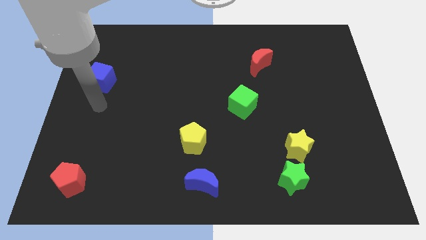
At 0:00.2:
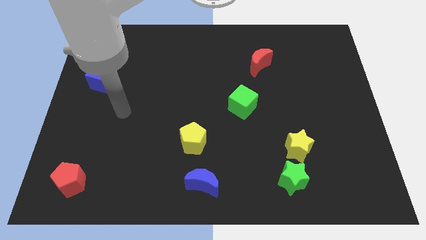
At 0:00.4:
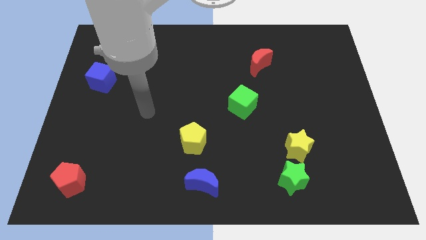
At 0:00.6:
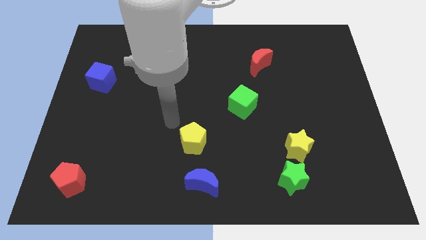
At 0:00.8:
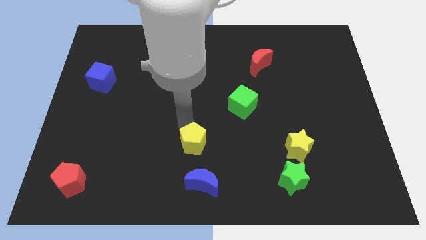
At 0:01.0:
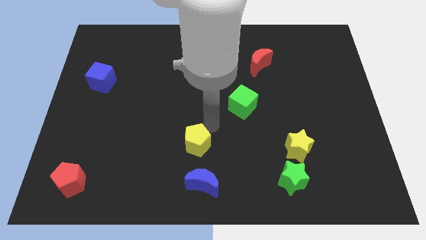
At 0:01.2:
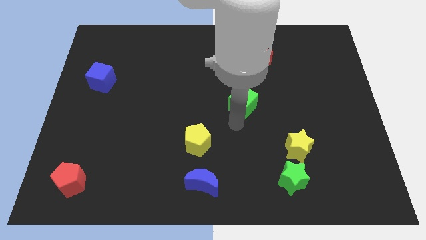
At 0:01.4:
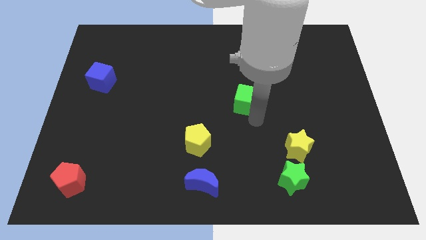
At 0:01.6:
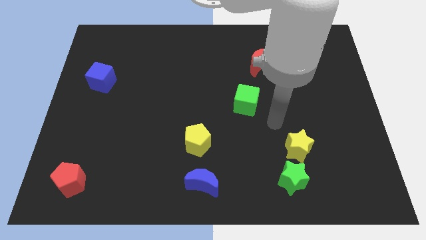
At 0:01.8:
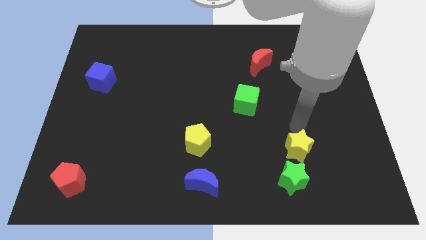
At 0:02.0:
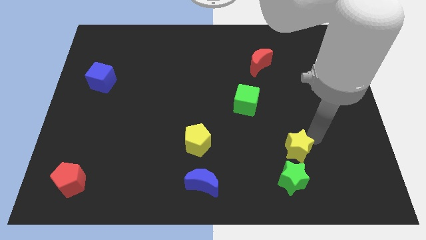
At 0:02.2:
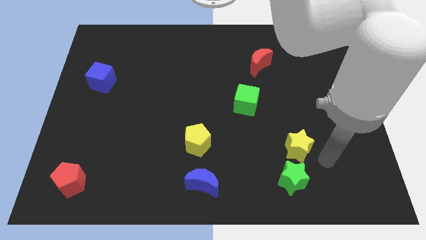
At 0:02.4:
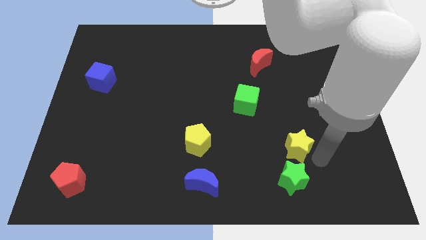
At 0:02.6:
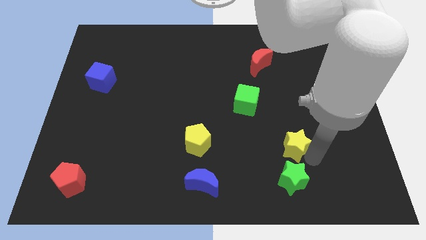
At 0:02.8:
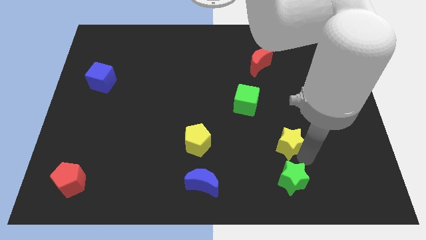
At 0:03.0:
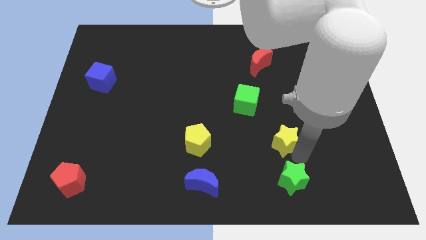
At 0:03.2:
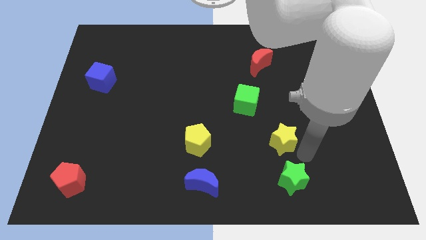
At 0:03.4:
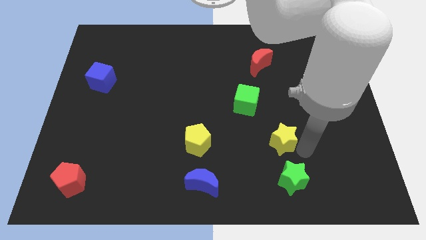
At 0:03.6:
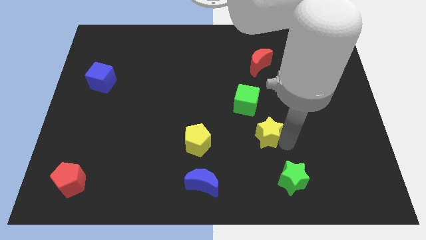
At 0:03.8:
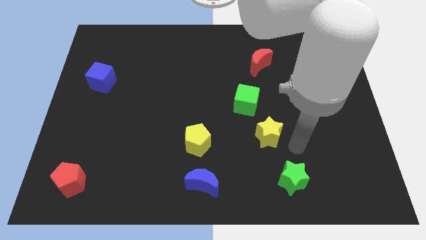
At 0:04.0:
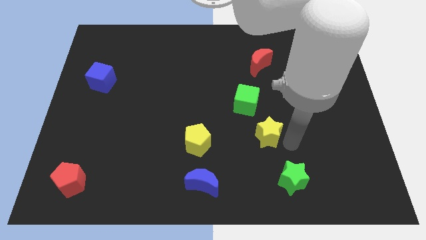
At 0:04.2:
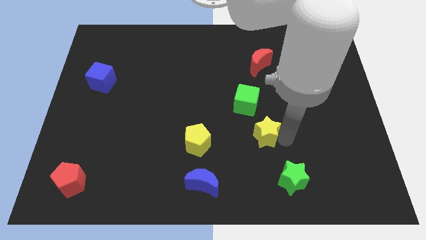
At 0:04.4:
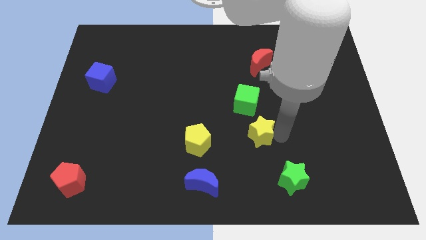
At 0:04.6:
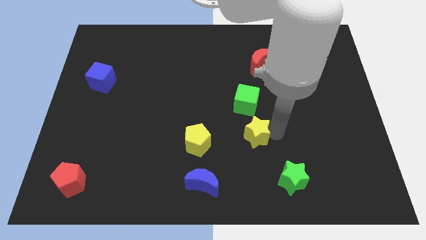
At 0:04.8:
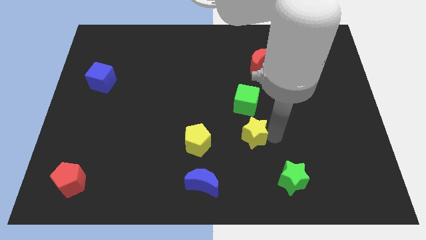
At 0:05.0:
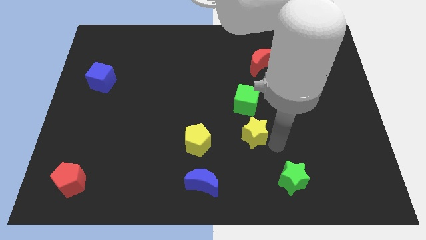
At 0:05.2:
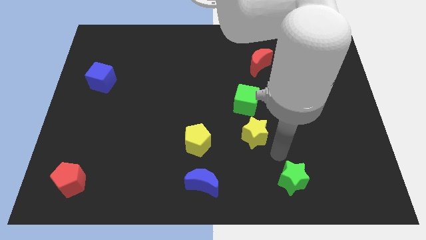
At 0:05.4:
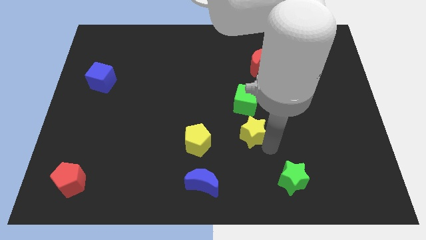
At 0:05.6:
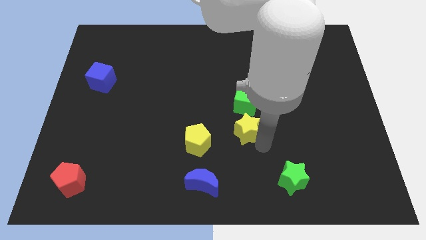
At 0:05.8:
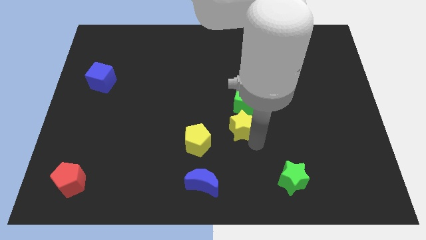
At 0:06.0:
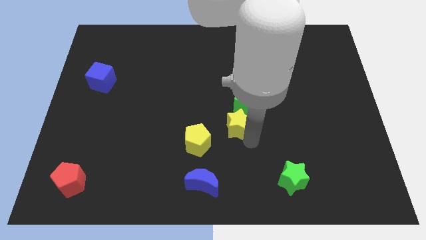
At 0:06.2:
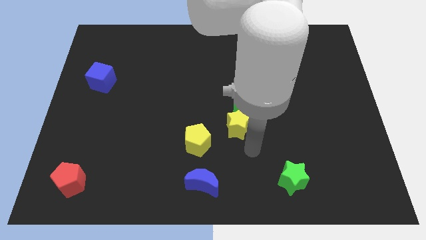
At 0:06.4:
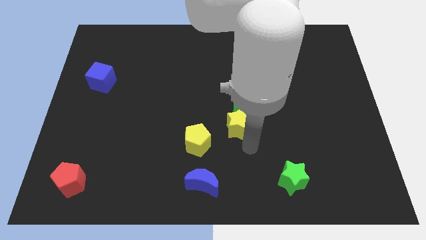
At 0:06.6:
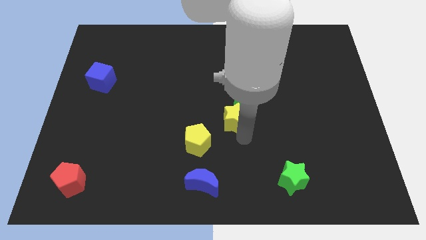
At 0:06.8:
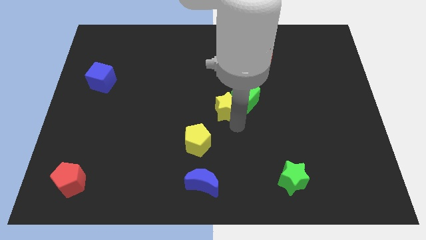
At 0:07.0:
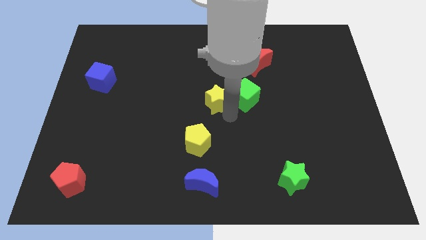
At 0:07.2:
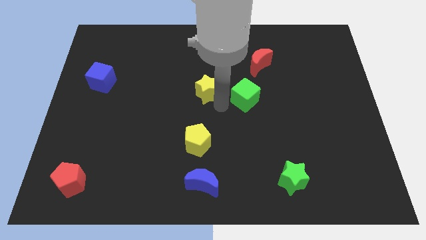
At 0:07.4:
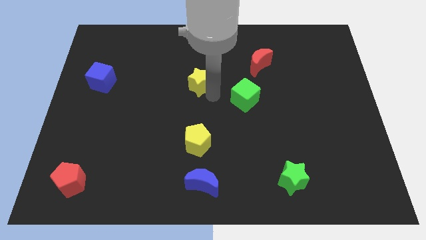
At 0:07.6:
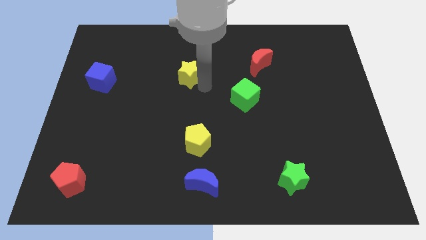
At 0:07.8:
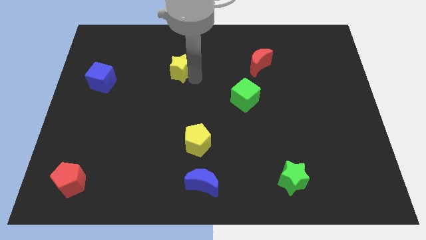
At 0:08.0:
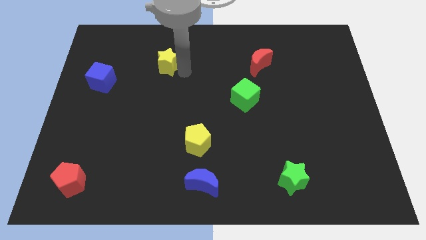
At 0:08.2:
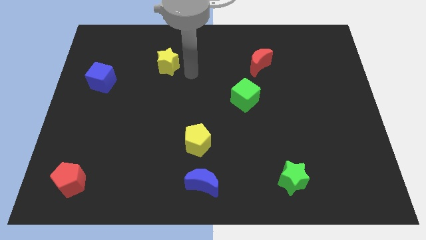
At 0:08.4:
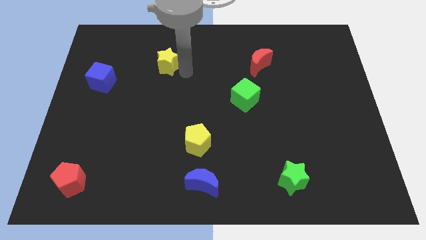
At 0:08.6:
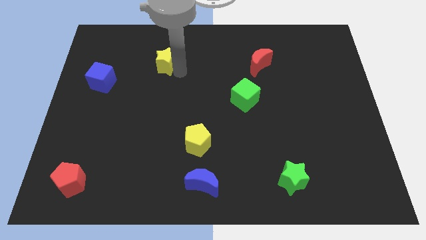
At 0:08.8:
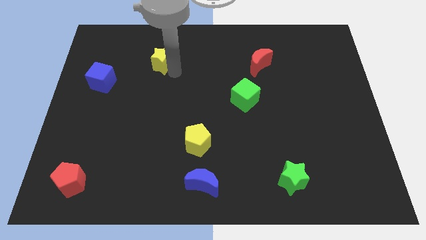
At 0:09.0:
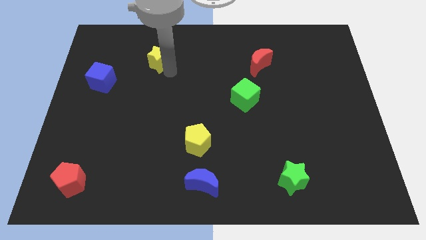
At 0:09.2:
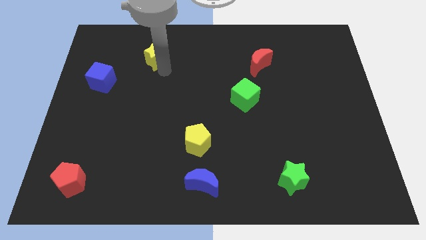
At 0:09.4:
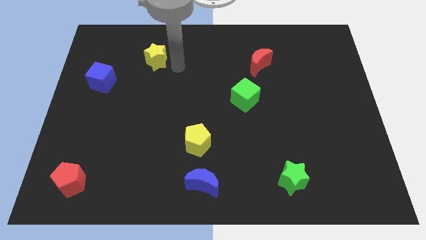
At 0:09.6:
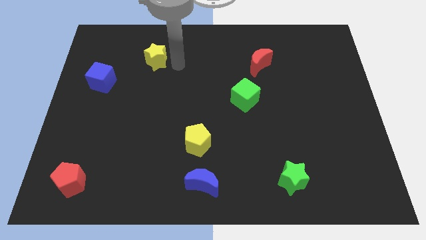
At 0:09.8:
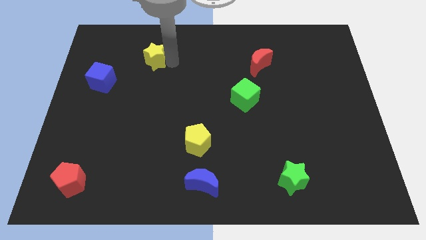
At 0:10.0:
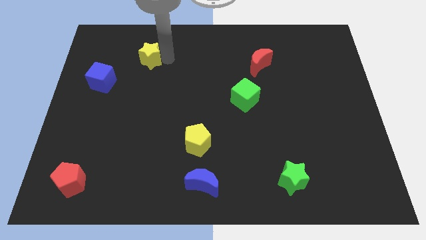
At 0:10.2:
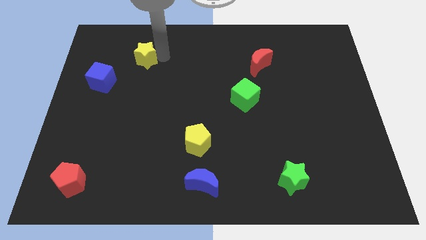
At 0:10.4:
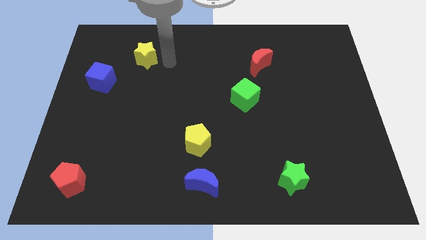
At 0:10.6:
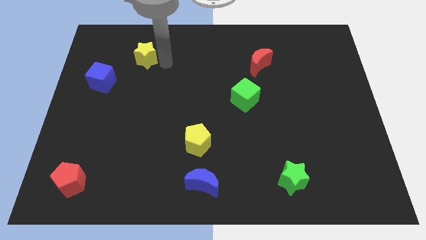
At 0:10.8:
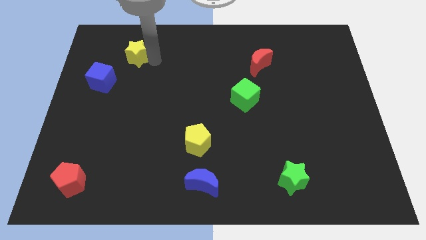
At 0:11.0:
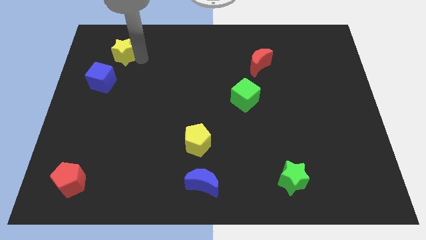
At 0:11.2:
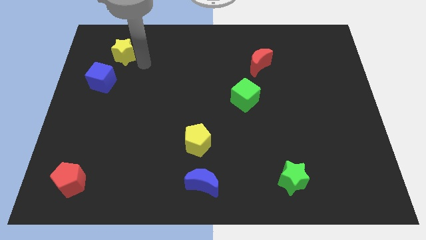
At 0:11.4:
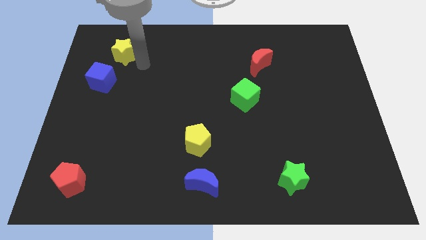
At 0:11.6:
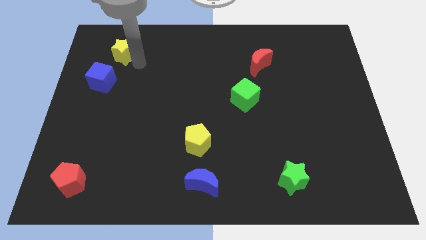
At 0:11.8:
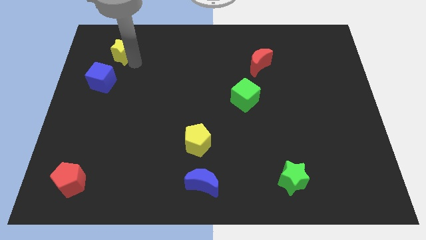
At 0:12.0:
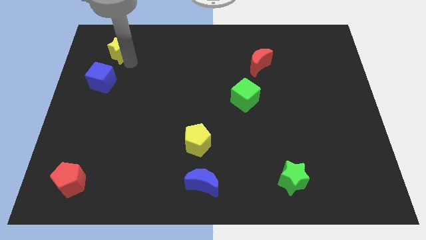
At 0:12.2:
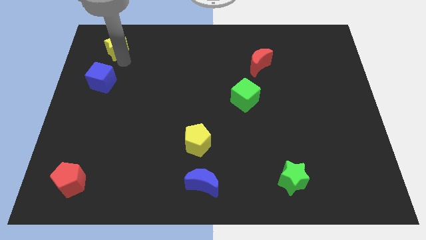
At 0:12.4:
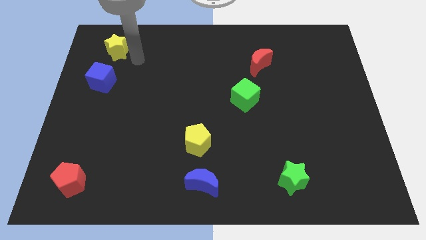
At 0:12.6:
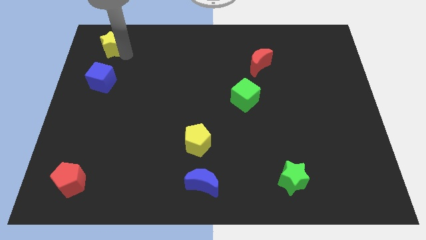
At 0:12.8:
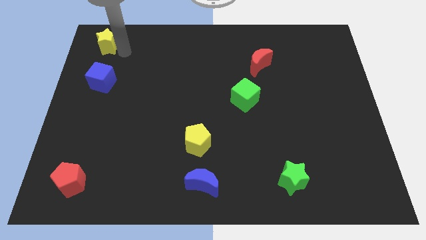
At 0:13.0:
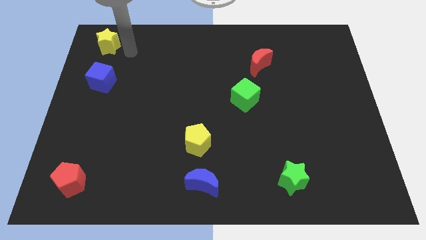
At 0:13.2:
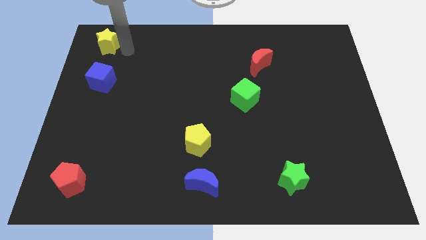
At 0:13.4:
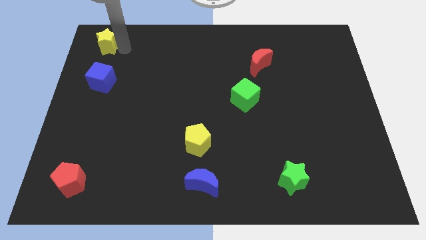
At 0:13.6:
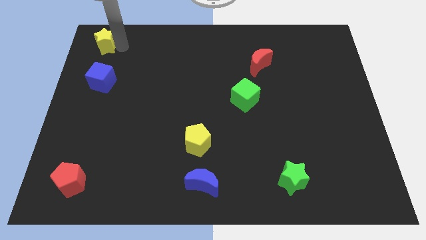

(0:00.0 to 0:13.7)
move the yellow star to the upper left corner

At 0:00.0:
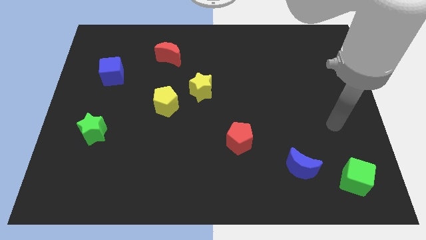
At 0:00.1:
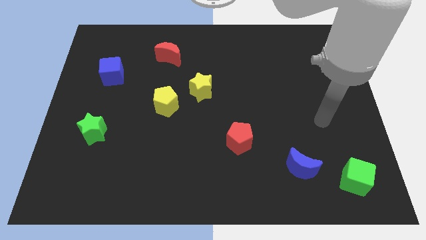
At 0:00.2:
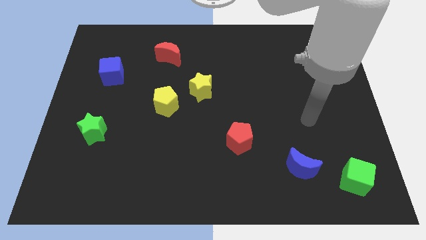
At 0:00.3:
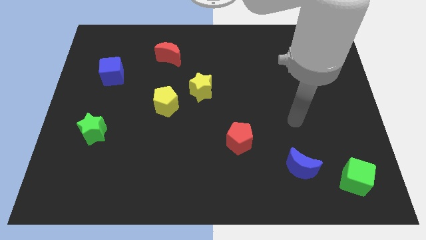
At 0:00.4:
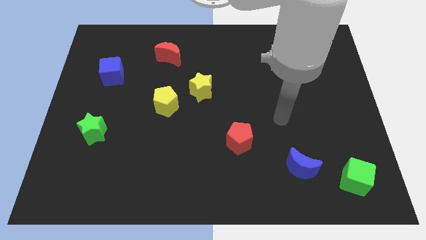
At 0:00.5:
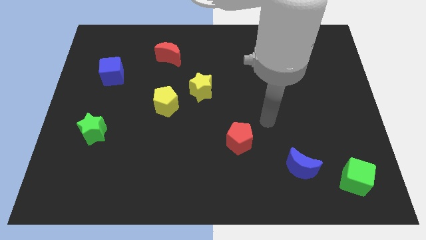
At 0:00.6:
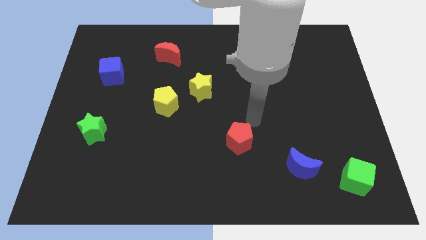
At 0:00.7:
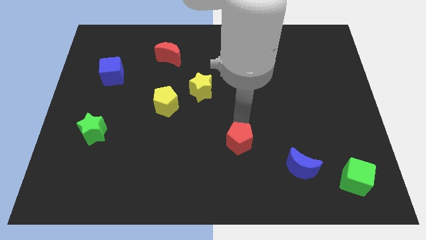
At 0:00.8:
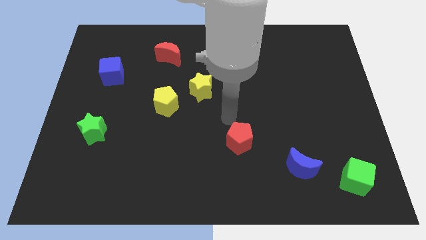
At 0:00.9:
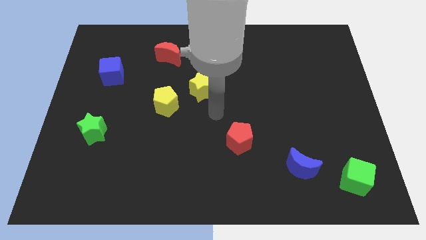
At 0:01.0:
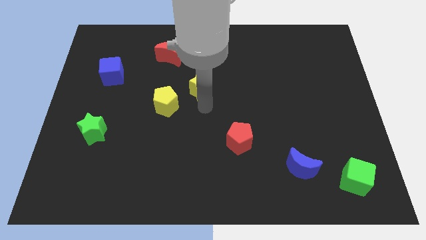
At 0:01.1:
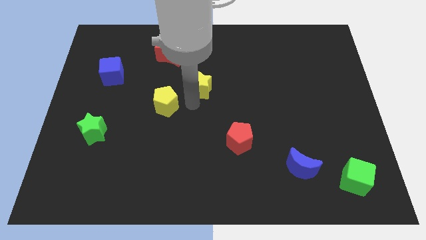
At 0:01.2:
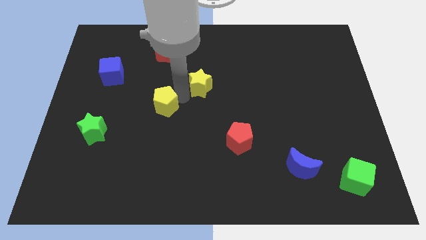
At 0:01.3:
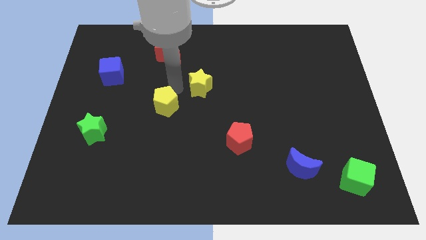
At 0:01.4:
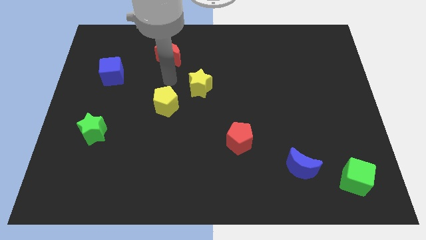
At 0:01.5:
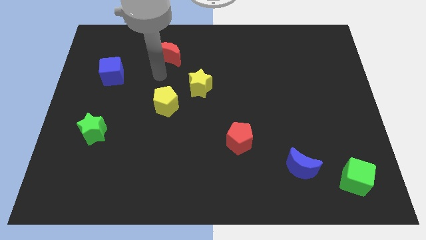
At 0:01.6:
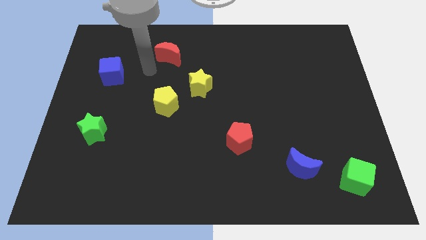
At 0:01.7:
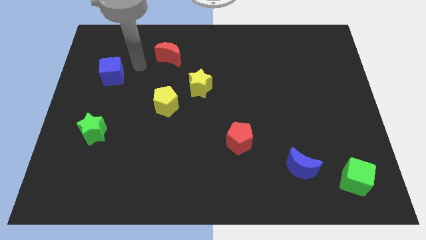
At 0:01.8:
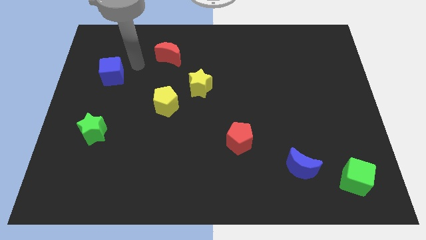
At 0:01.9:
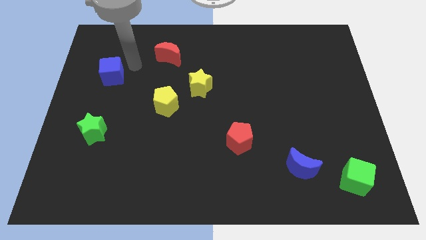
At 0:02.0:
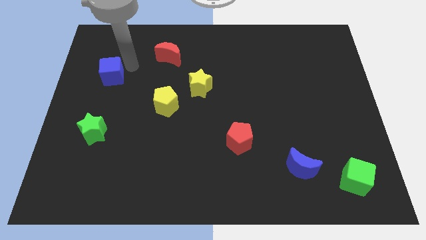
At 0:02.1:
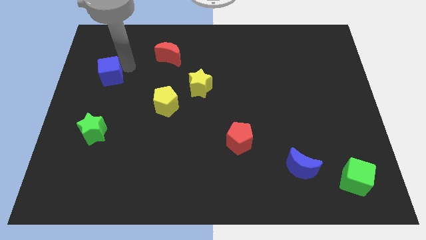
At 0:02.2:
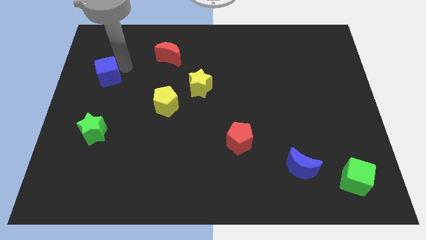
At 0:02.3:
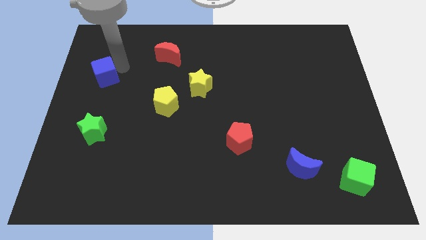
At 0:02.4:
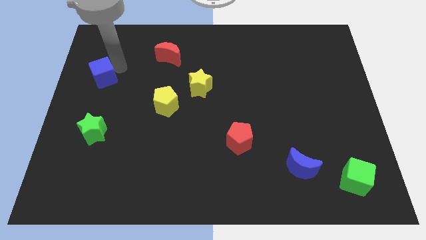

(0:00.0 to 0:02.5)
put the blue cube to the center left
